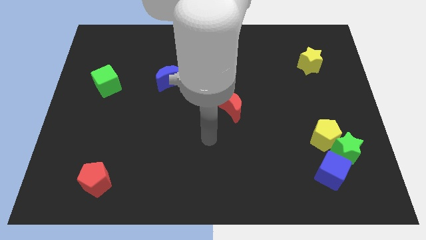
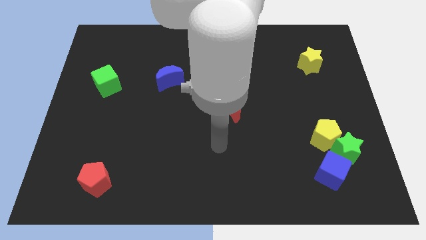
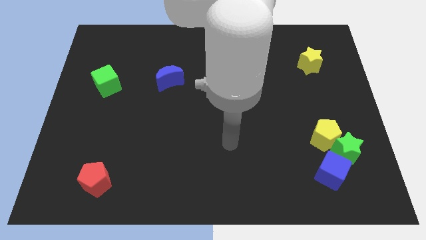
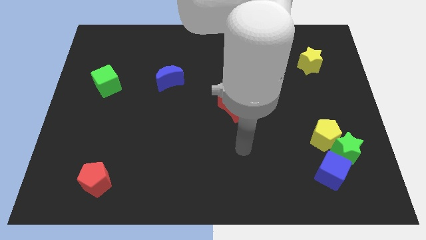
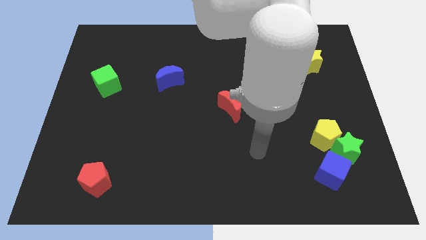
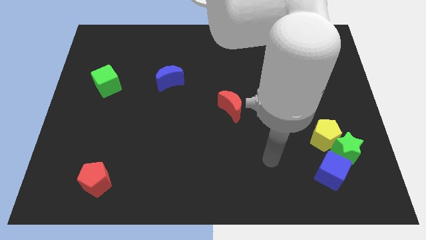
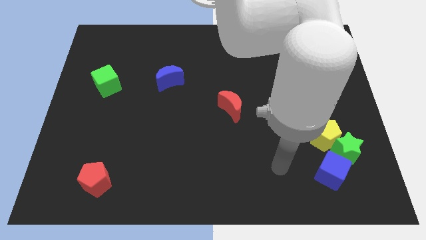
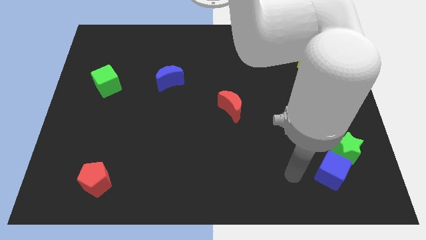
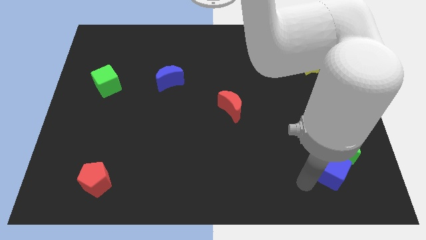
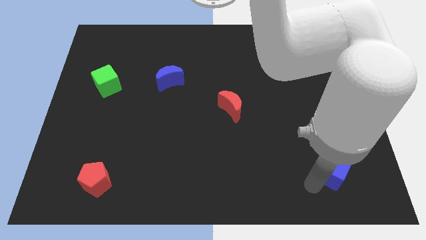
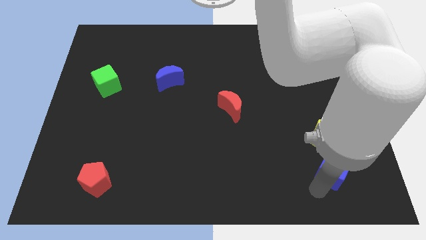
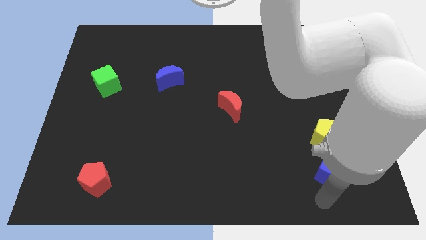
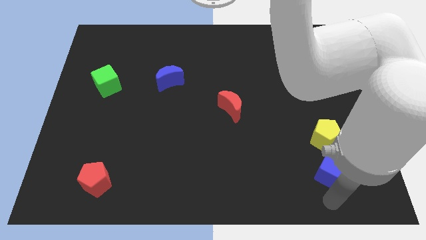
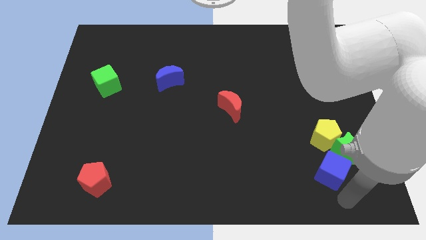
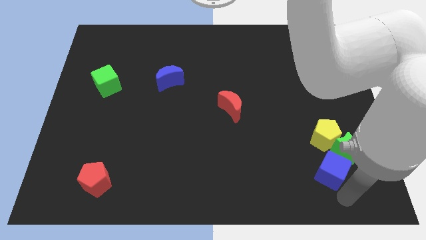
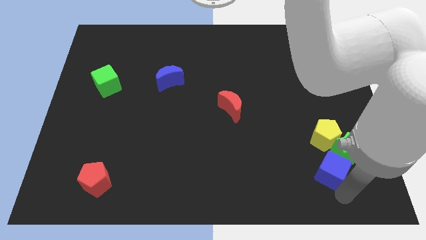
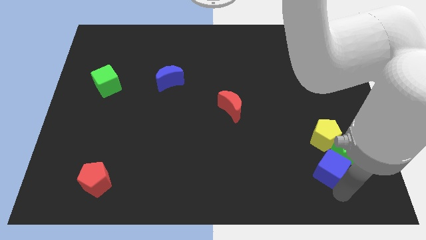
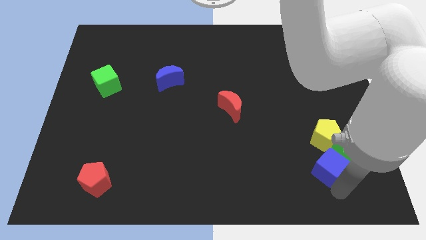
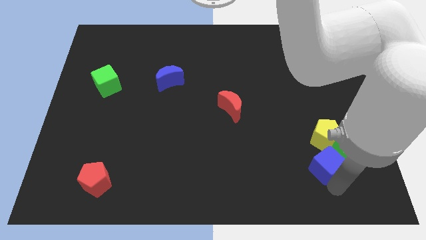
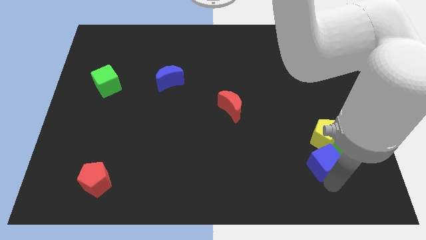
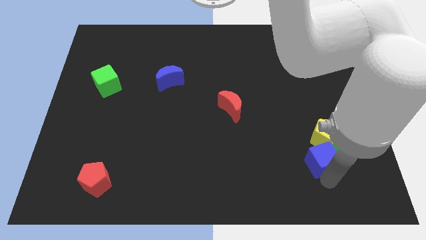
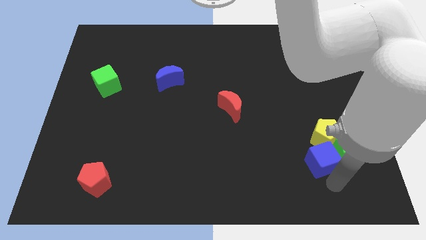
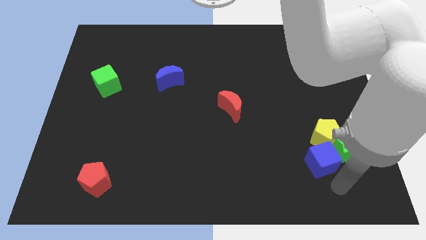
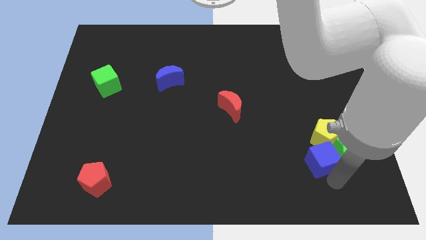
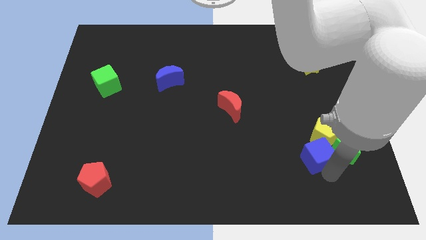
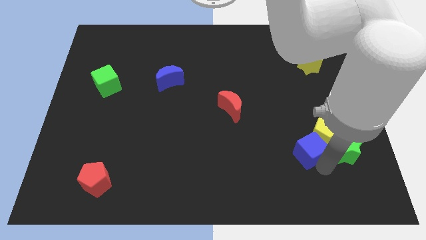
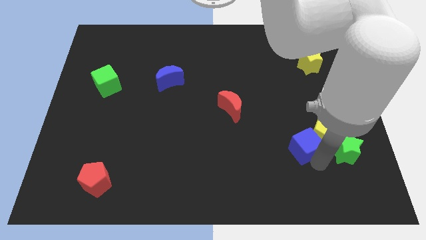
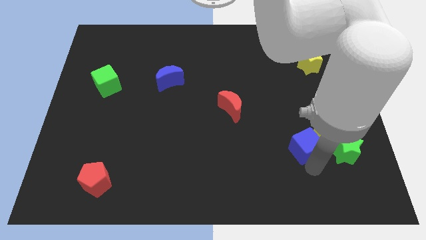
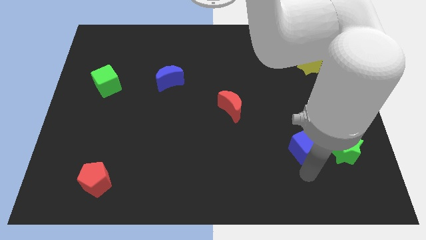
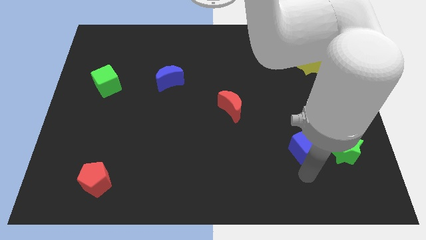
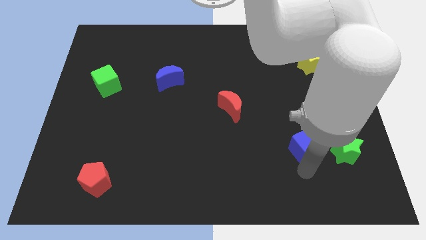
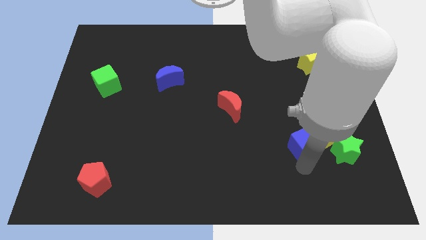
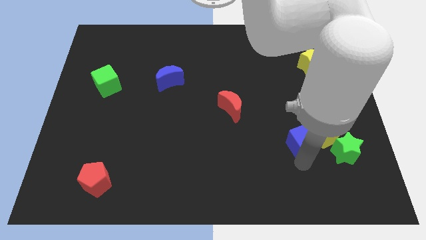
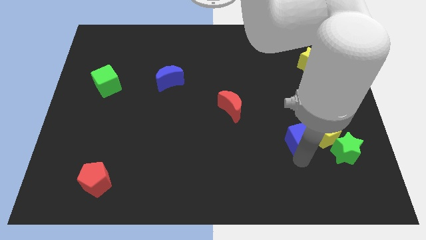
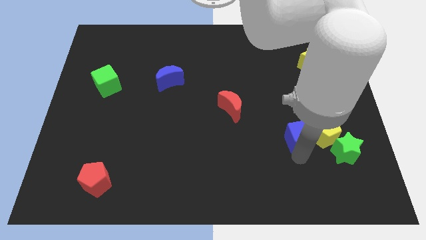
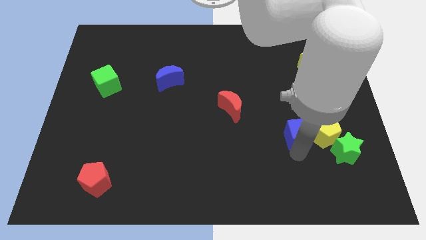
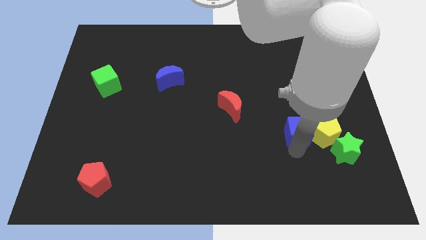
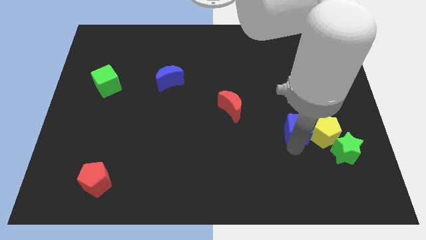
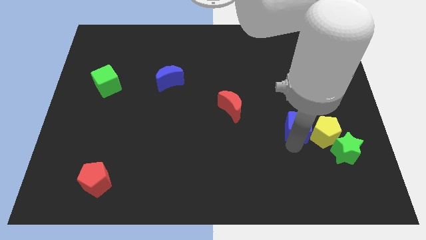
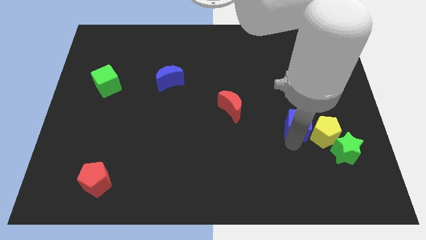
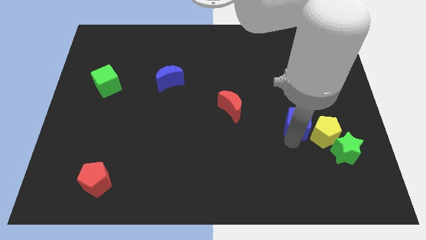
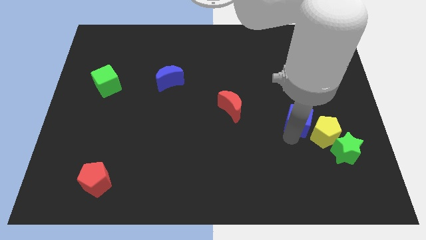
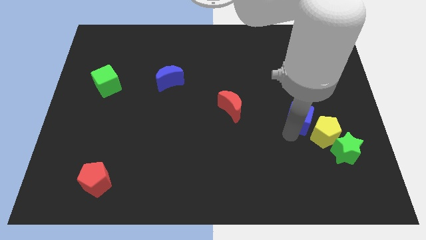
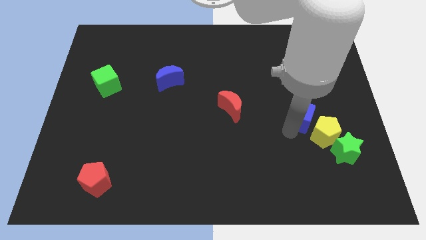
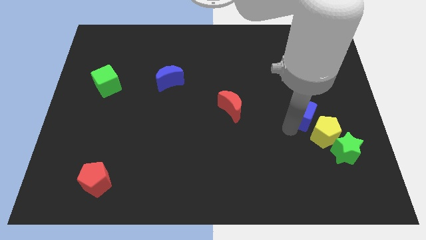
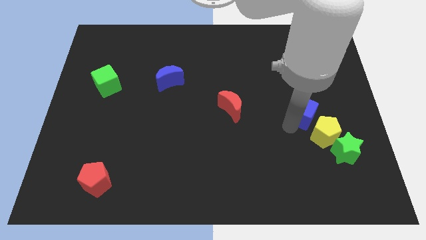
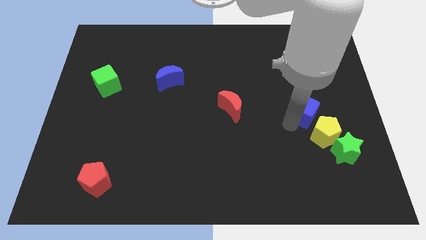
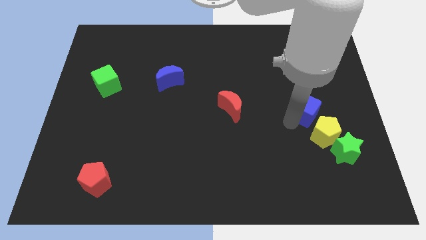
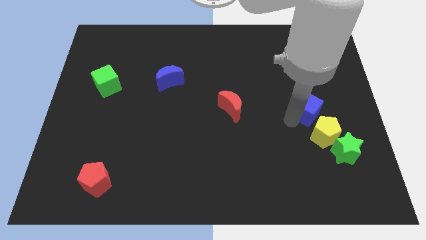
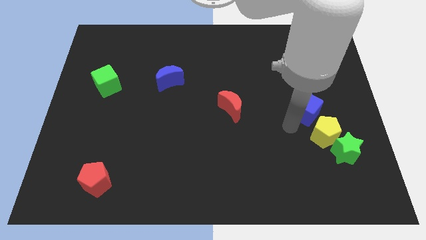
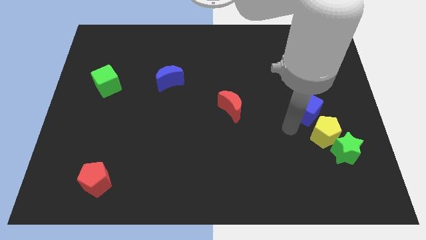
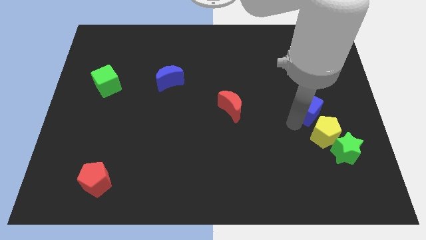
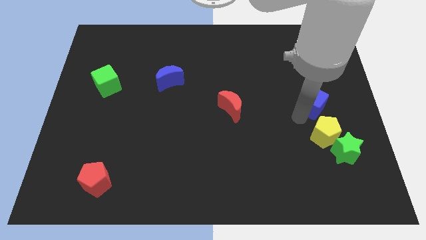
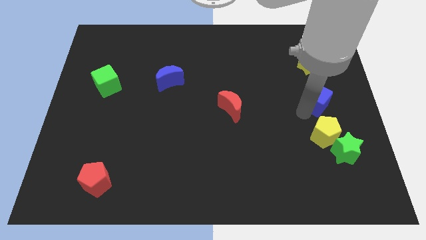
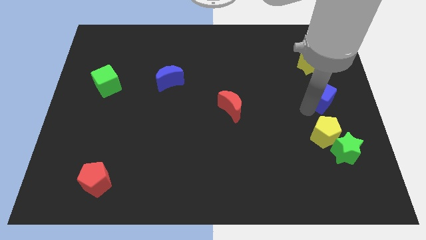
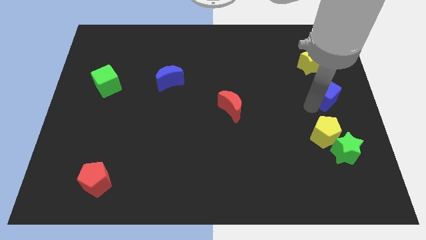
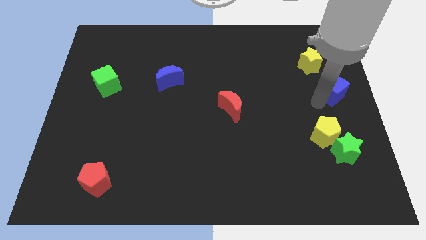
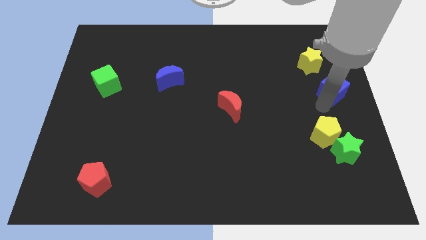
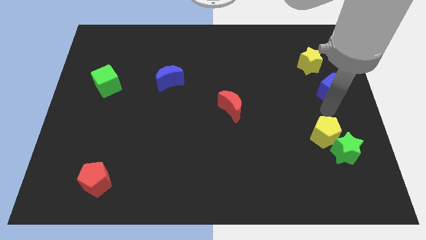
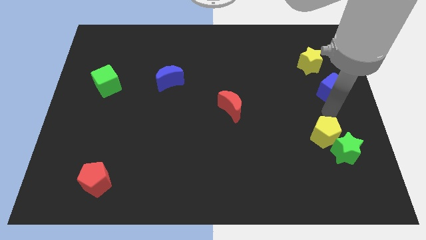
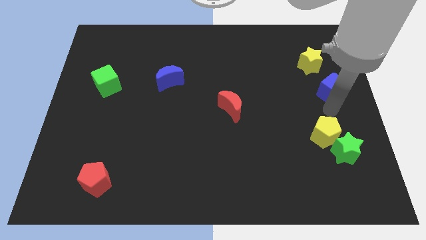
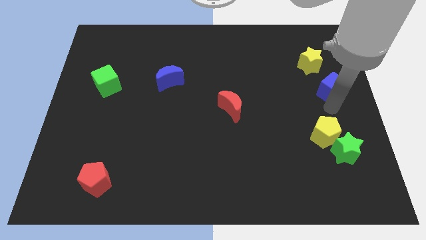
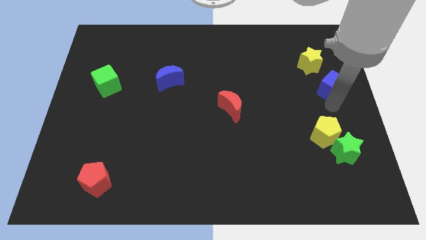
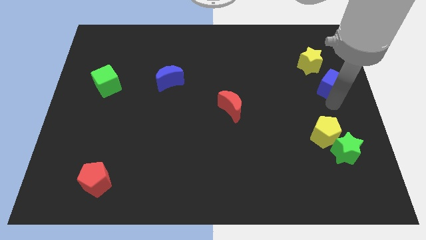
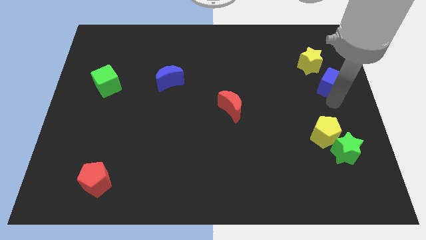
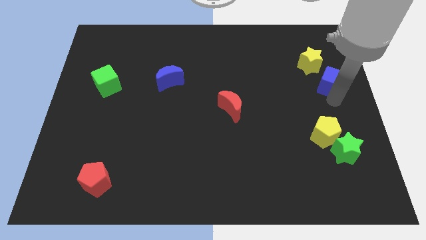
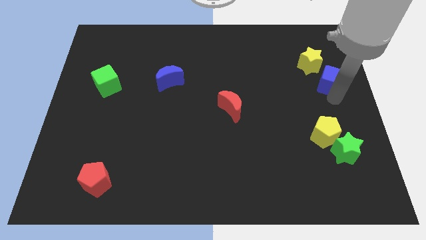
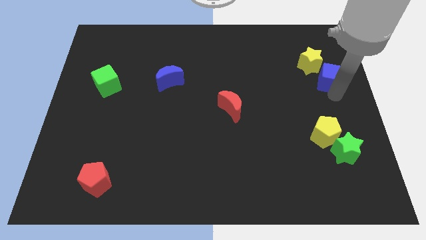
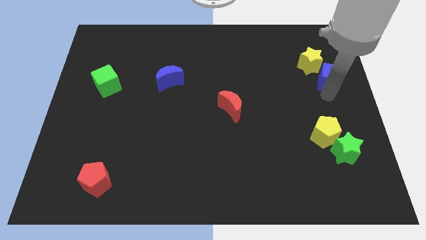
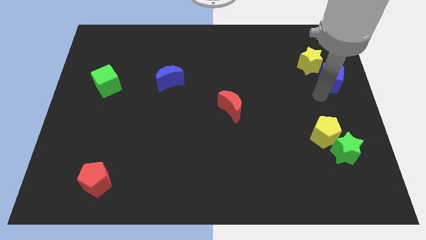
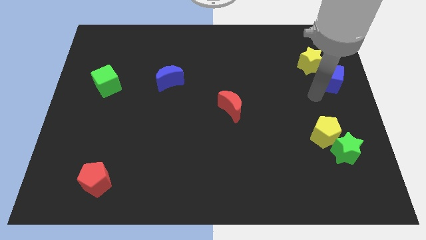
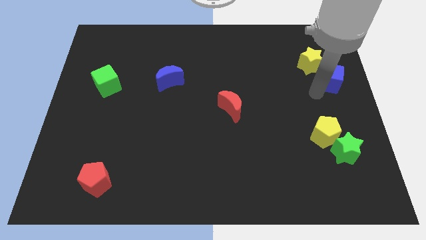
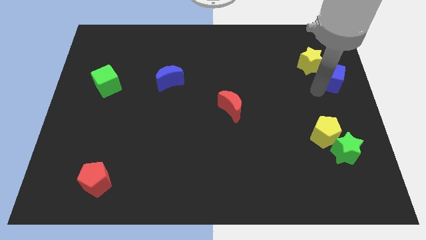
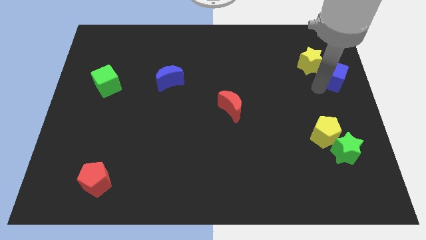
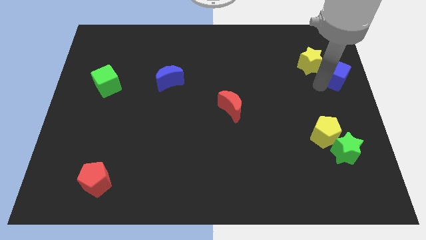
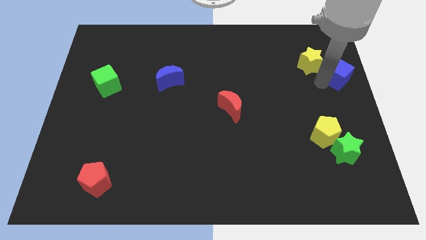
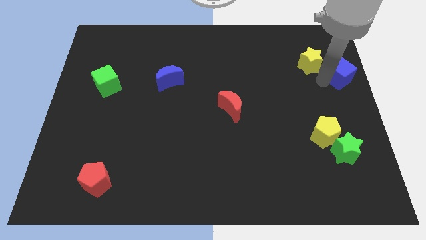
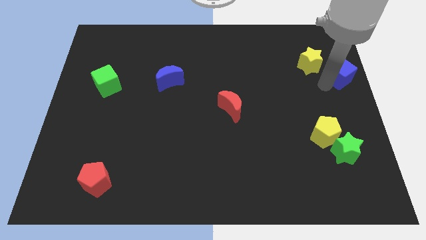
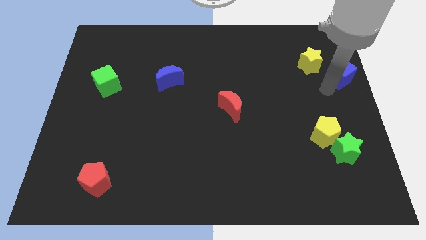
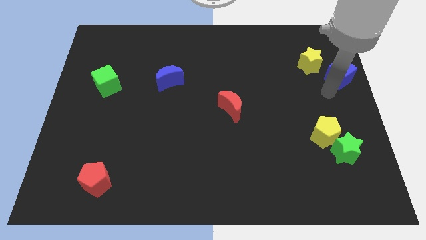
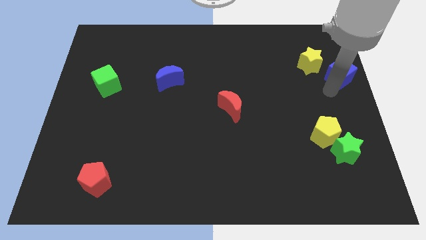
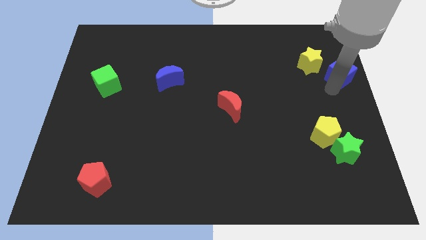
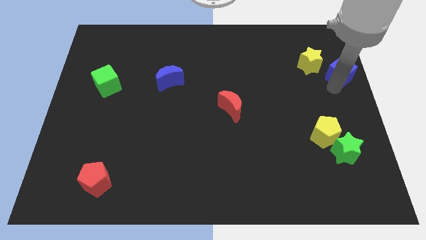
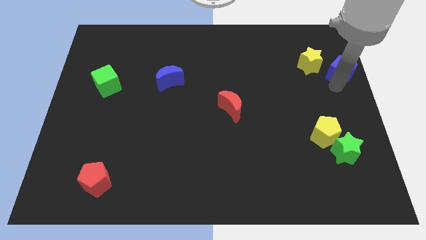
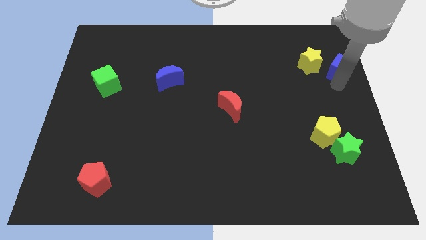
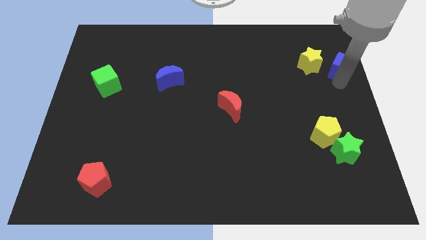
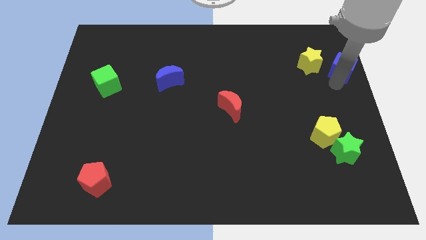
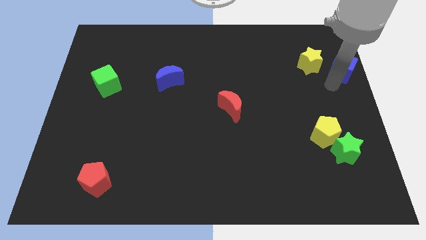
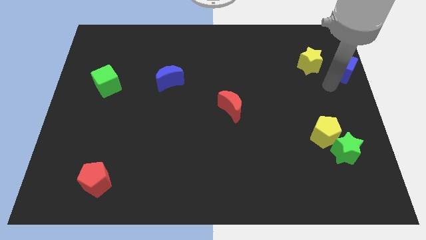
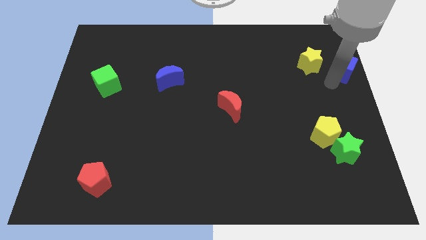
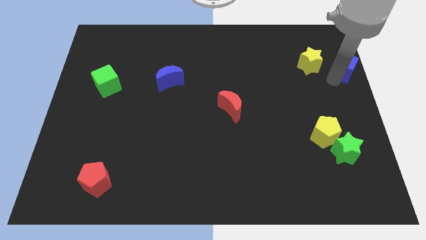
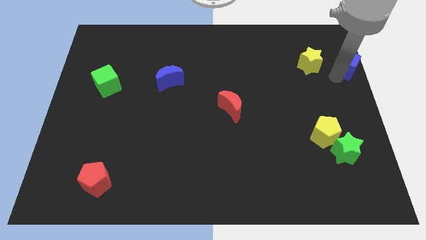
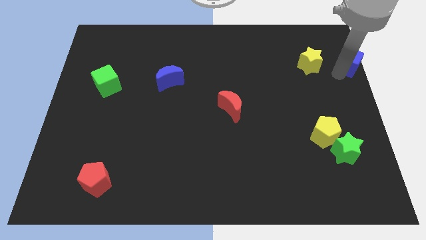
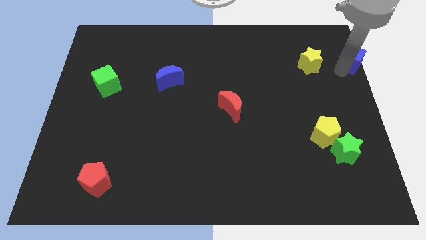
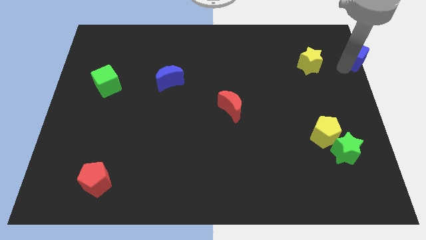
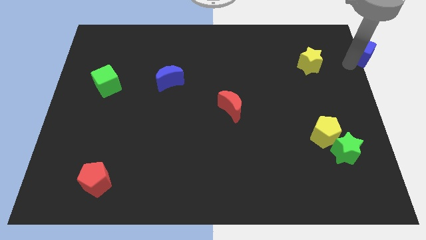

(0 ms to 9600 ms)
slide the blue cube to the upper right corner
